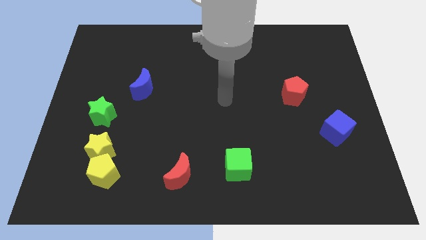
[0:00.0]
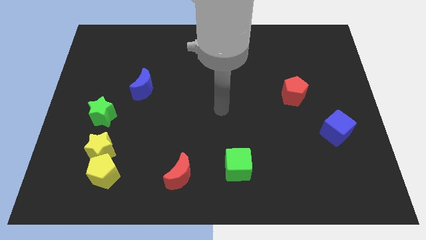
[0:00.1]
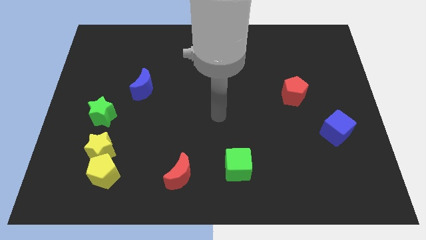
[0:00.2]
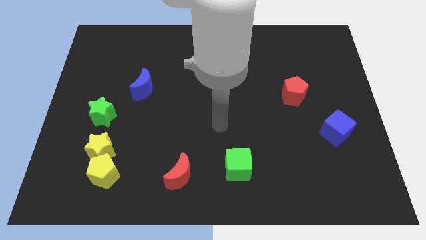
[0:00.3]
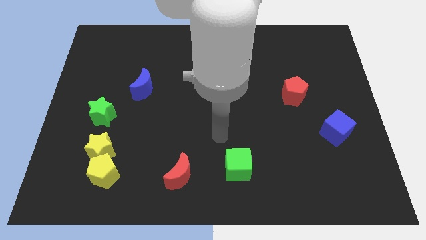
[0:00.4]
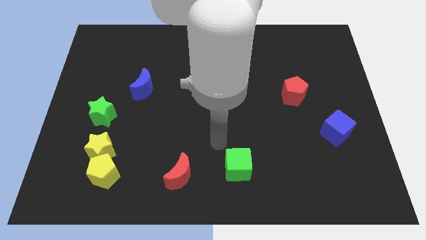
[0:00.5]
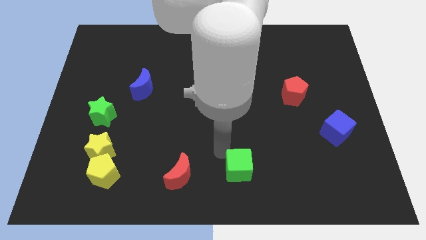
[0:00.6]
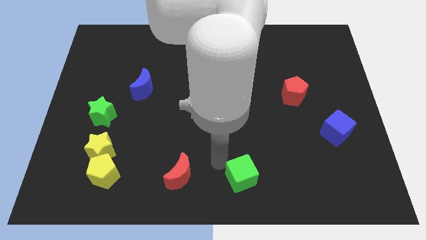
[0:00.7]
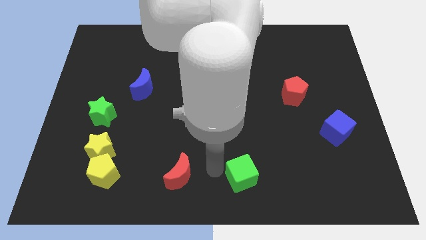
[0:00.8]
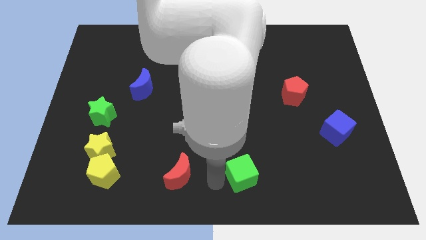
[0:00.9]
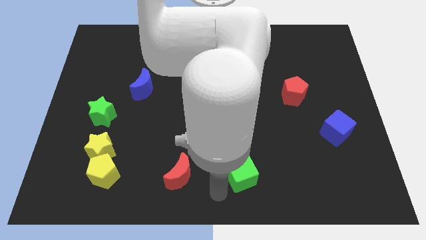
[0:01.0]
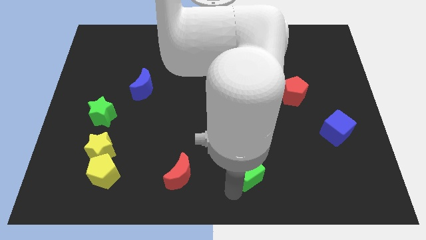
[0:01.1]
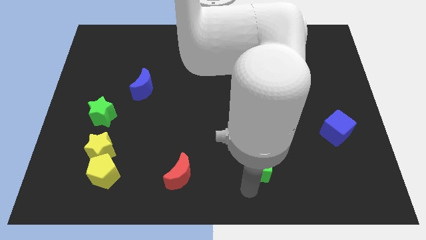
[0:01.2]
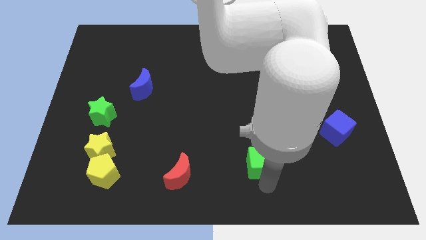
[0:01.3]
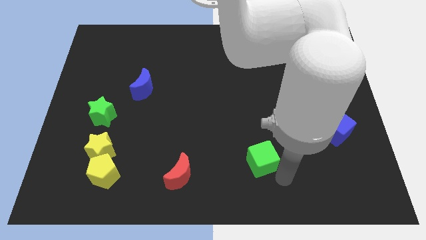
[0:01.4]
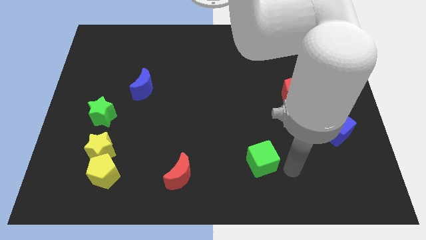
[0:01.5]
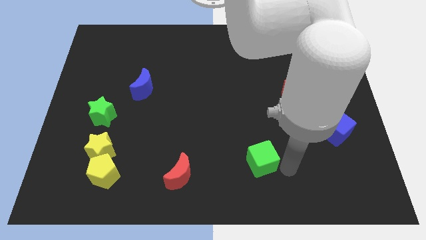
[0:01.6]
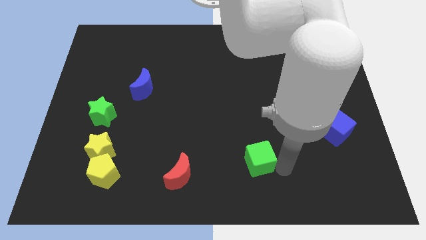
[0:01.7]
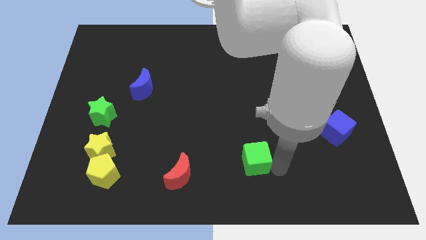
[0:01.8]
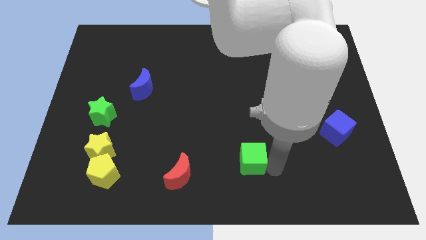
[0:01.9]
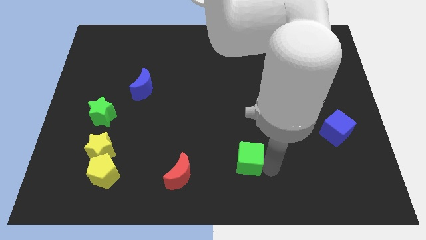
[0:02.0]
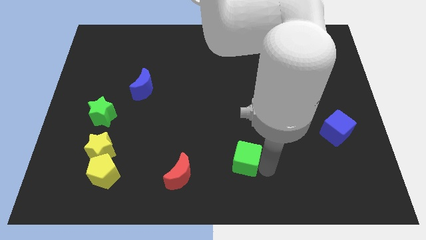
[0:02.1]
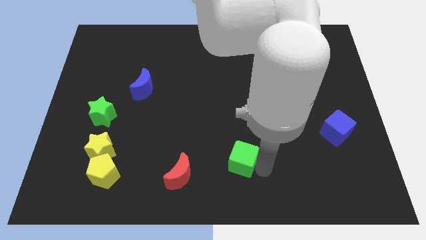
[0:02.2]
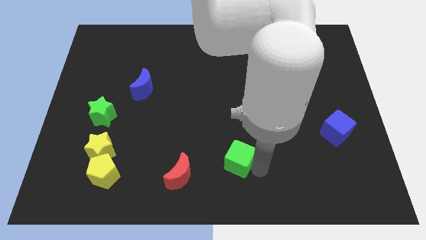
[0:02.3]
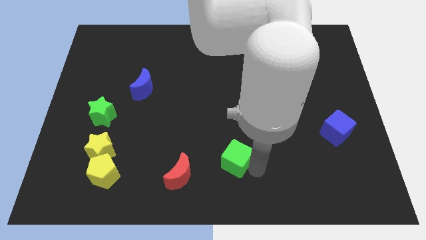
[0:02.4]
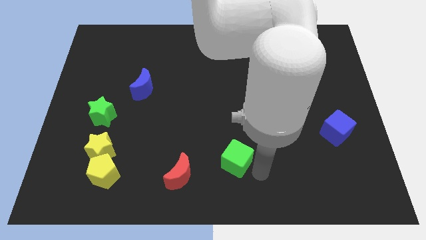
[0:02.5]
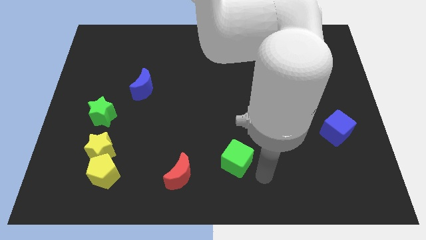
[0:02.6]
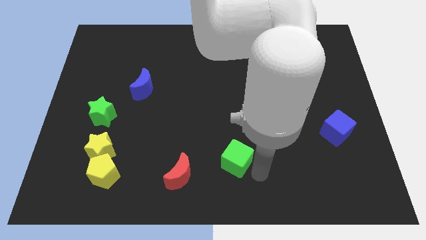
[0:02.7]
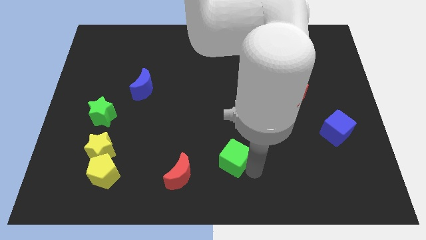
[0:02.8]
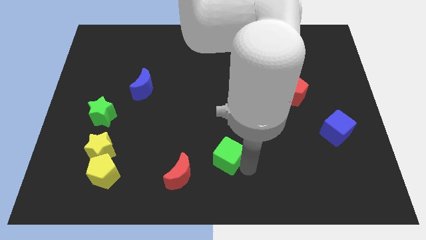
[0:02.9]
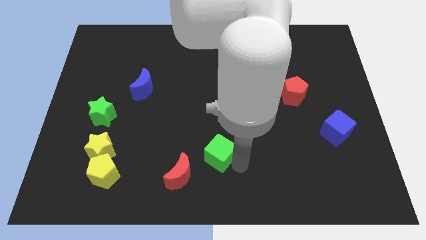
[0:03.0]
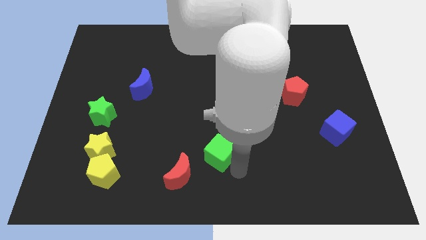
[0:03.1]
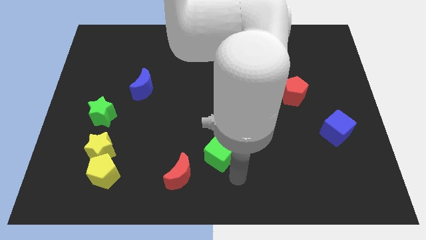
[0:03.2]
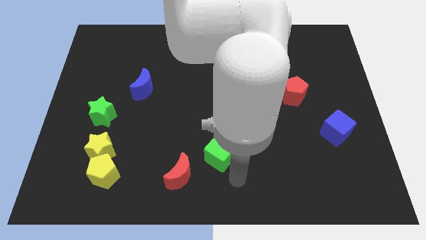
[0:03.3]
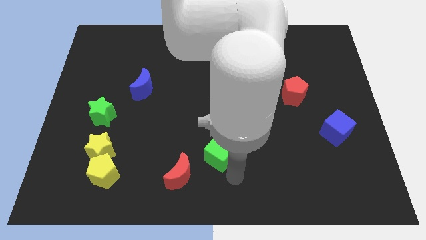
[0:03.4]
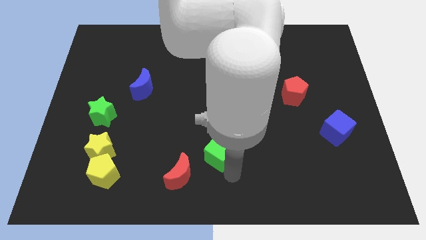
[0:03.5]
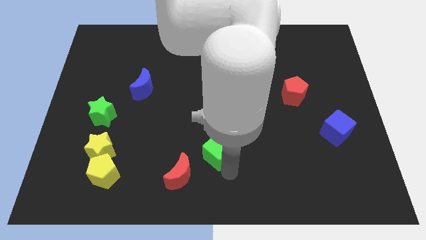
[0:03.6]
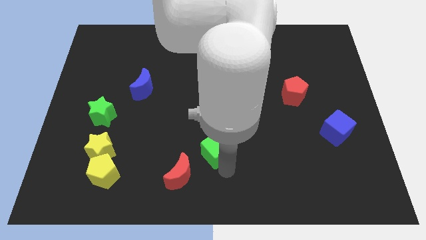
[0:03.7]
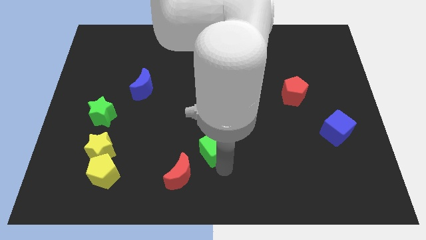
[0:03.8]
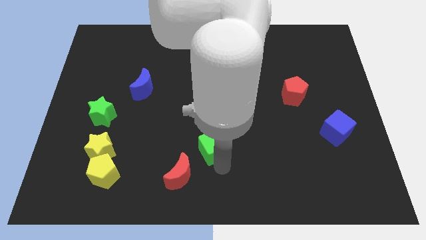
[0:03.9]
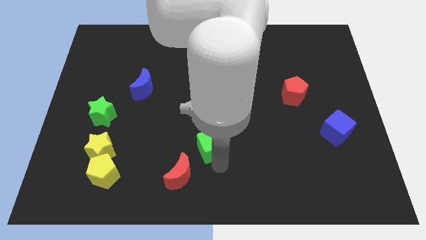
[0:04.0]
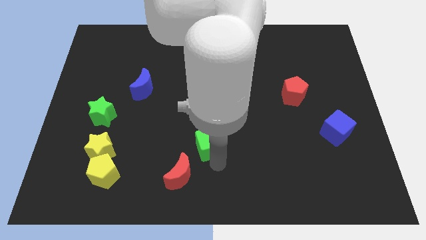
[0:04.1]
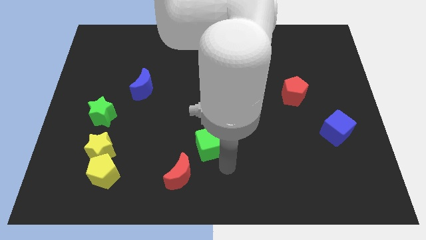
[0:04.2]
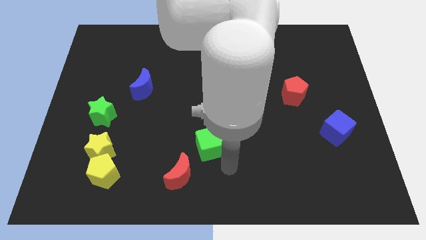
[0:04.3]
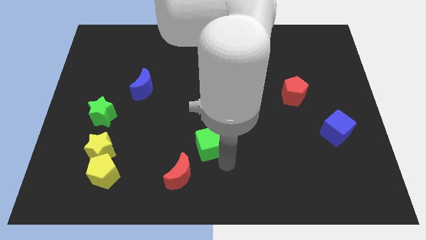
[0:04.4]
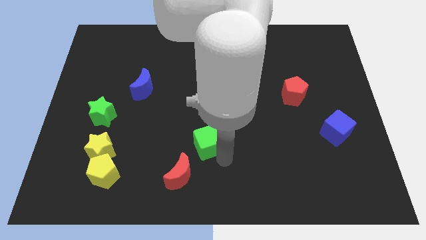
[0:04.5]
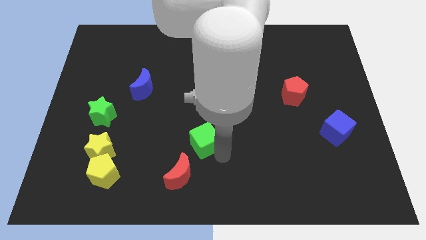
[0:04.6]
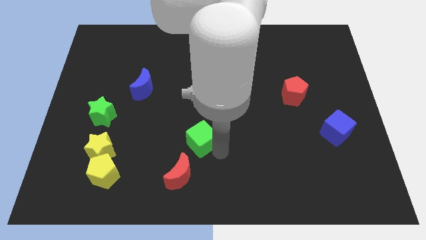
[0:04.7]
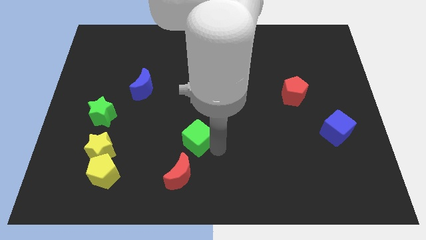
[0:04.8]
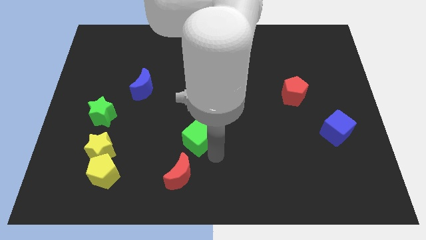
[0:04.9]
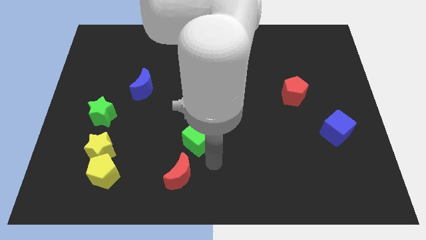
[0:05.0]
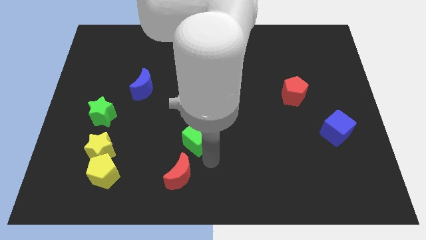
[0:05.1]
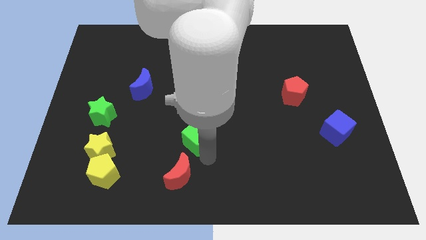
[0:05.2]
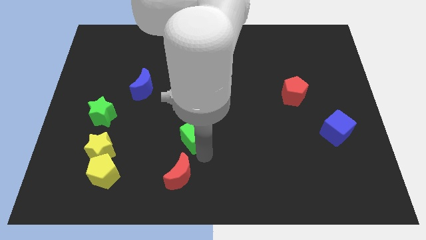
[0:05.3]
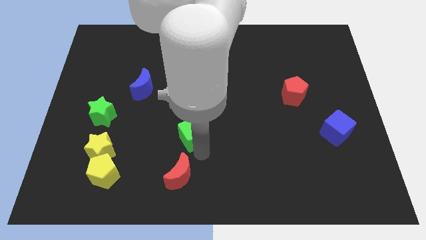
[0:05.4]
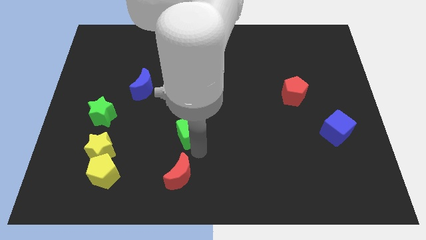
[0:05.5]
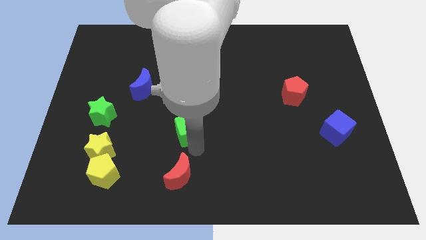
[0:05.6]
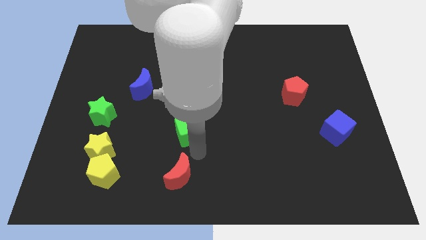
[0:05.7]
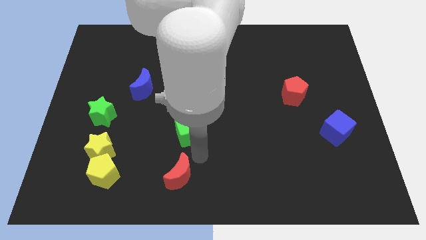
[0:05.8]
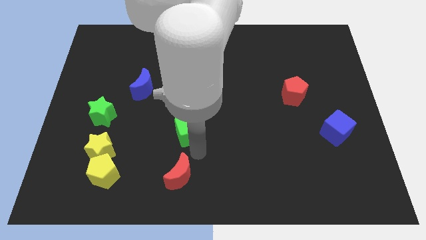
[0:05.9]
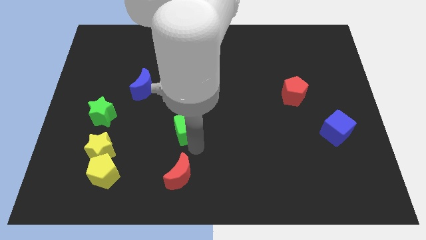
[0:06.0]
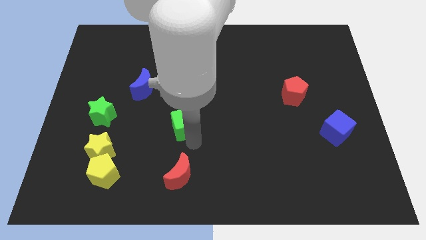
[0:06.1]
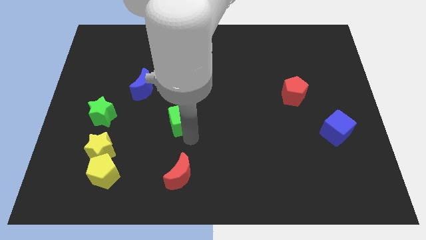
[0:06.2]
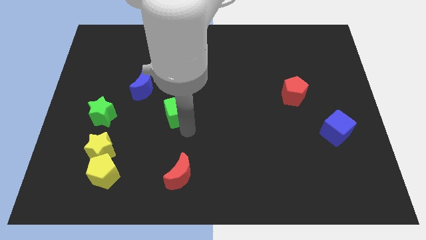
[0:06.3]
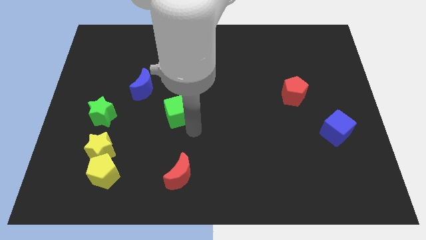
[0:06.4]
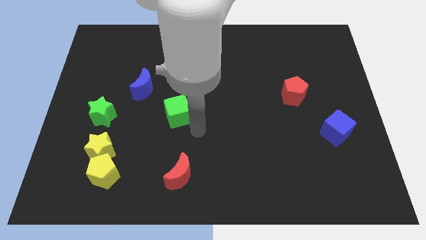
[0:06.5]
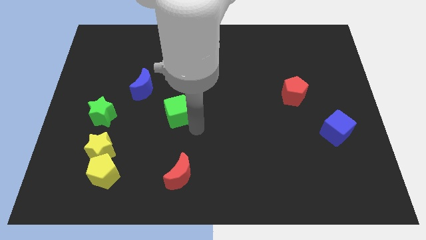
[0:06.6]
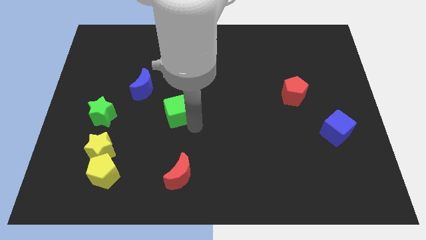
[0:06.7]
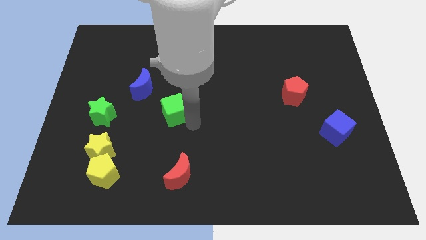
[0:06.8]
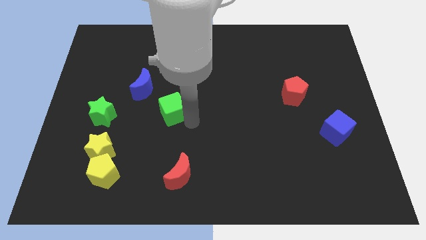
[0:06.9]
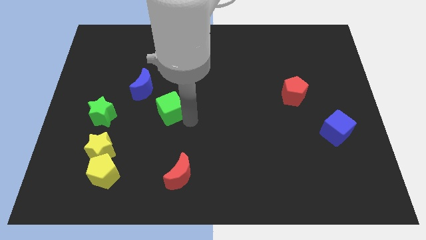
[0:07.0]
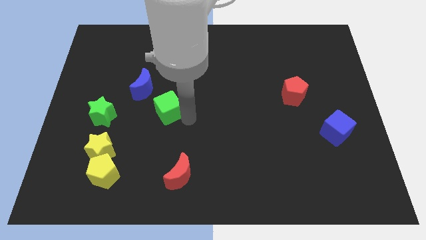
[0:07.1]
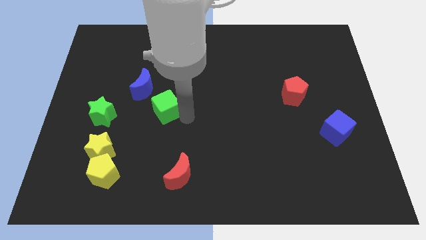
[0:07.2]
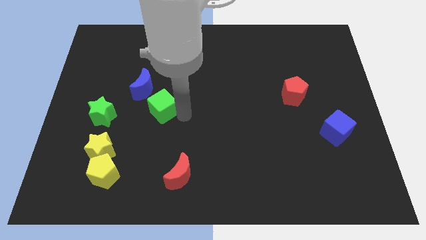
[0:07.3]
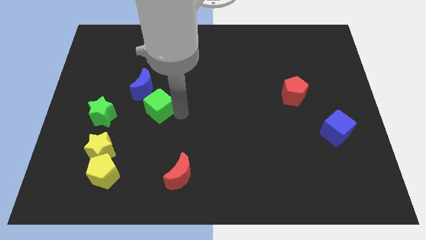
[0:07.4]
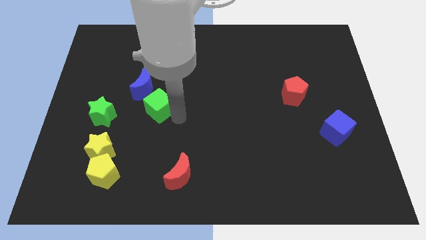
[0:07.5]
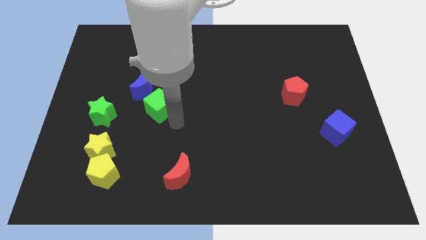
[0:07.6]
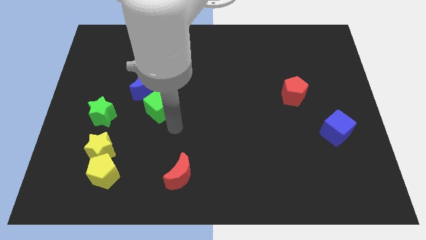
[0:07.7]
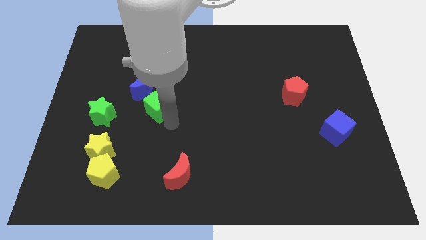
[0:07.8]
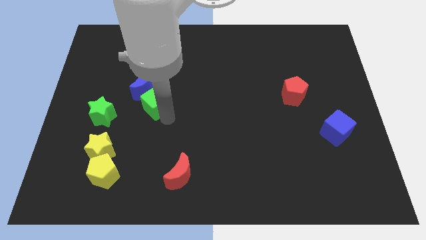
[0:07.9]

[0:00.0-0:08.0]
put the green cube towards the blue moon
